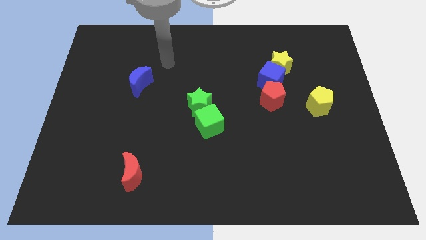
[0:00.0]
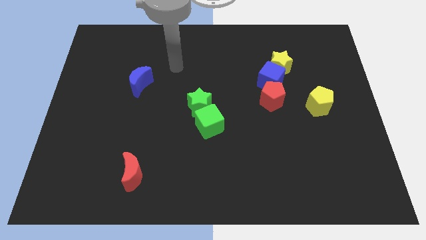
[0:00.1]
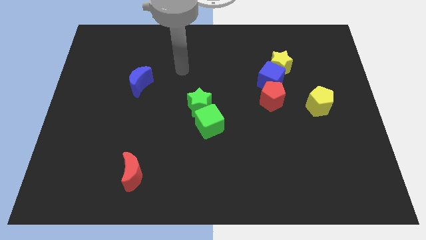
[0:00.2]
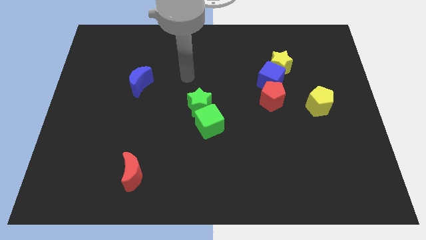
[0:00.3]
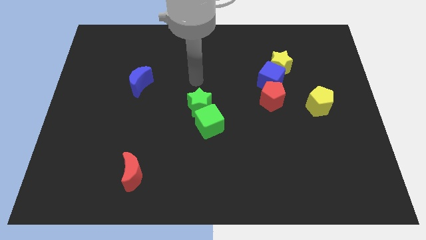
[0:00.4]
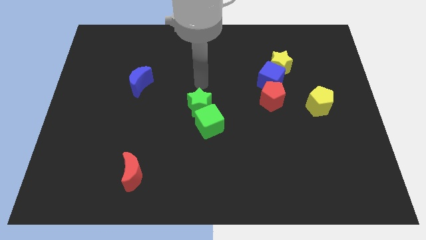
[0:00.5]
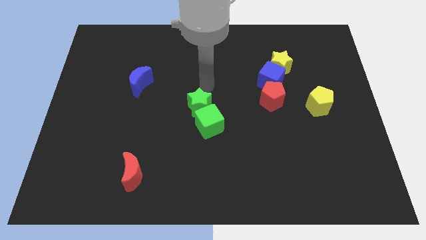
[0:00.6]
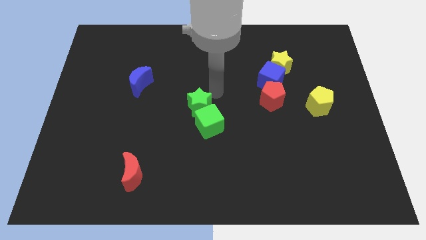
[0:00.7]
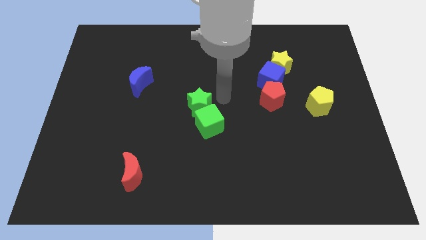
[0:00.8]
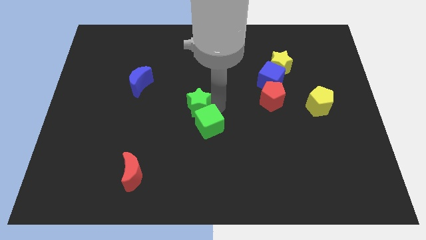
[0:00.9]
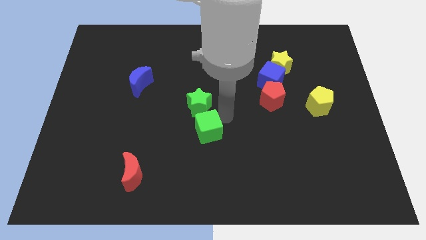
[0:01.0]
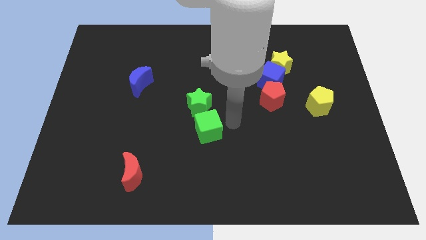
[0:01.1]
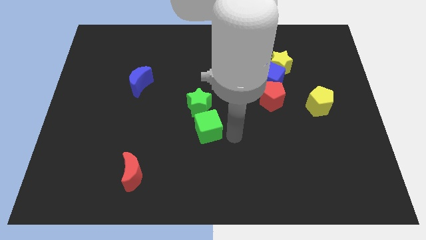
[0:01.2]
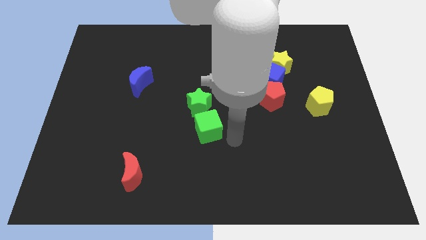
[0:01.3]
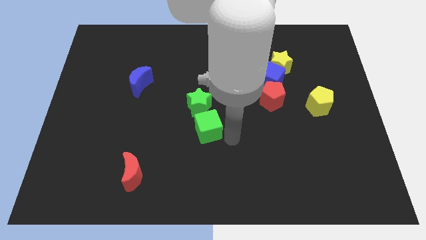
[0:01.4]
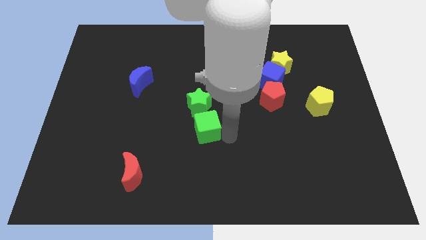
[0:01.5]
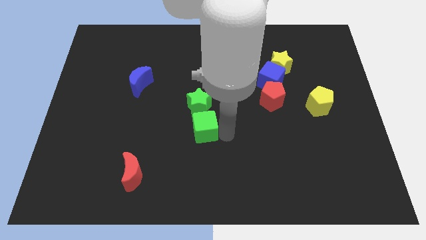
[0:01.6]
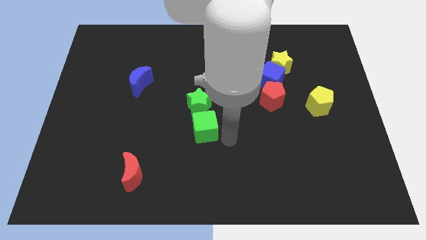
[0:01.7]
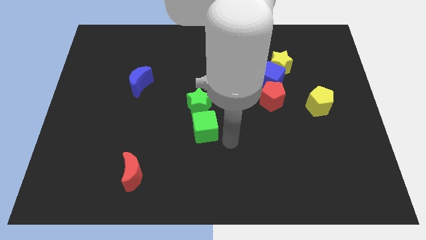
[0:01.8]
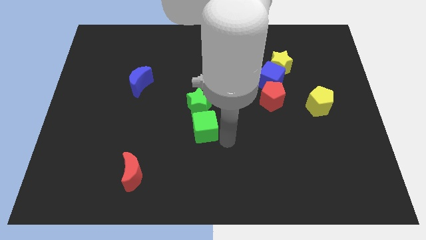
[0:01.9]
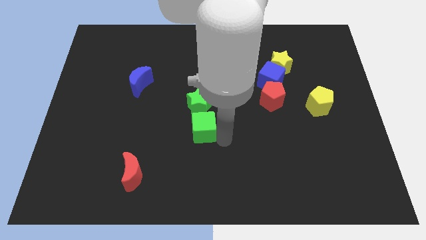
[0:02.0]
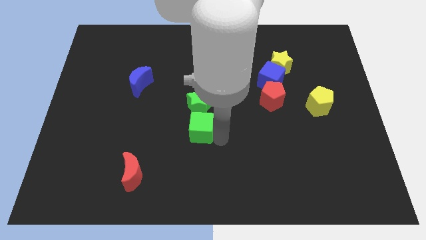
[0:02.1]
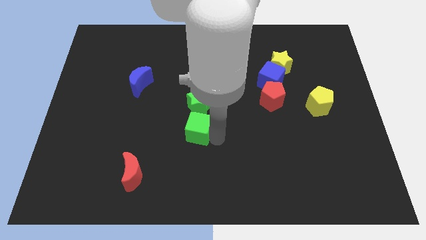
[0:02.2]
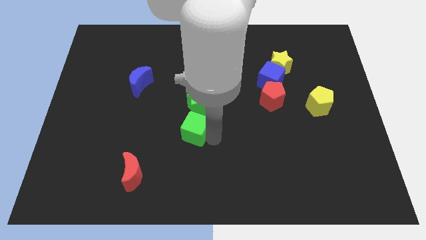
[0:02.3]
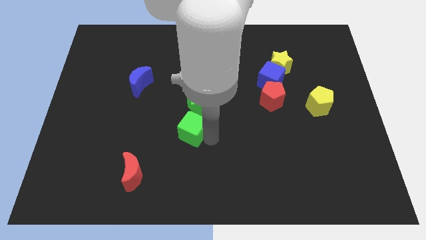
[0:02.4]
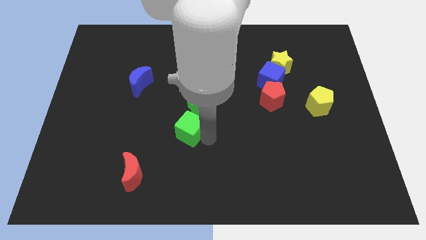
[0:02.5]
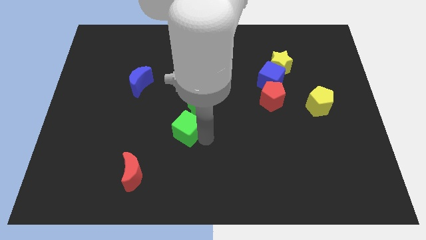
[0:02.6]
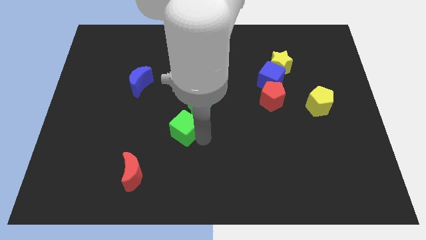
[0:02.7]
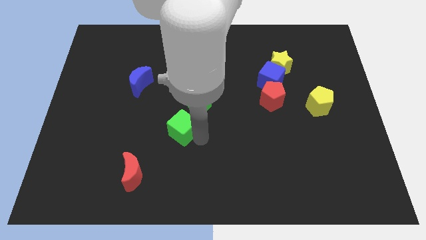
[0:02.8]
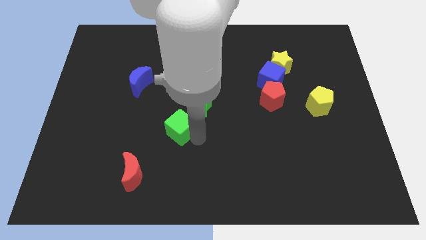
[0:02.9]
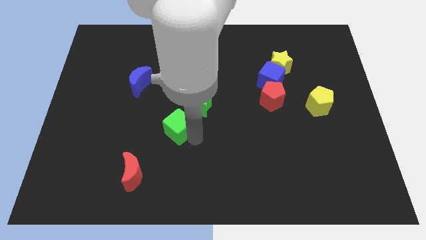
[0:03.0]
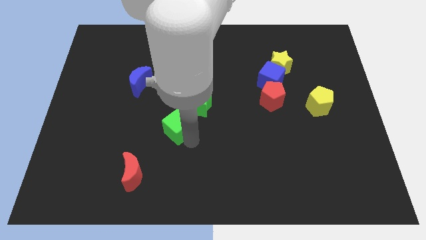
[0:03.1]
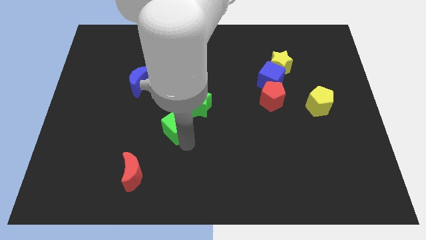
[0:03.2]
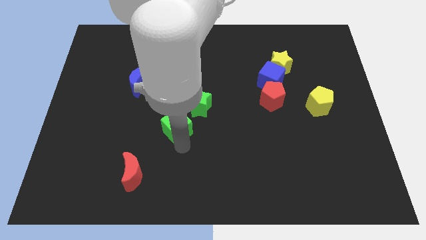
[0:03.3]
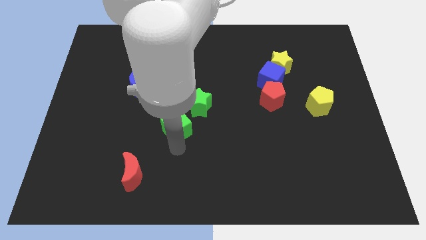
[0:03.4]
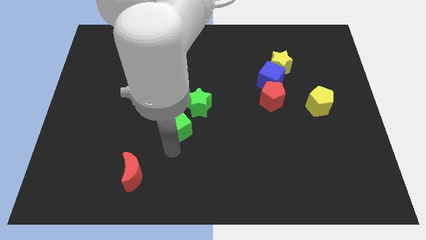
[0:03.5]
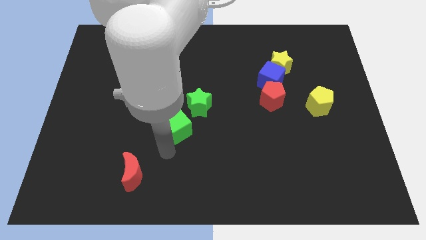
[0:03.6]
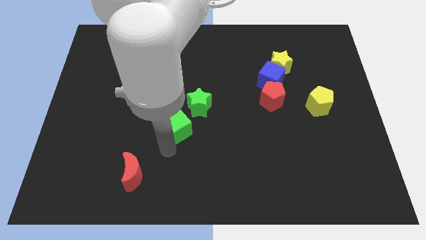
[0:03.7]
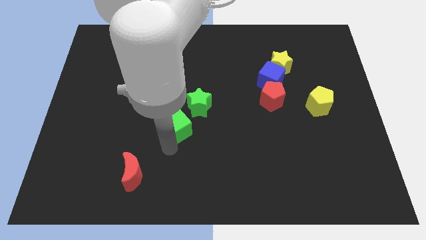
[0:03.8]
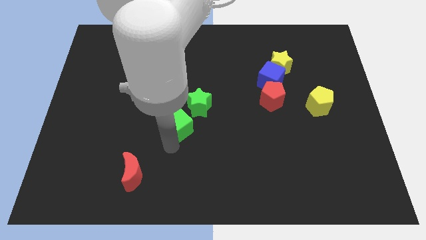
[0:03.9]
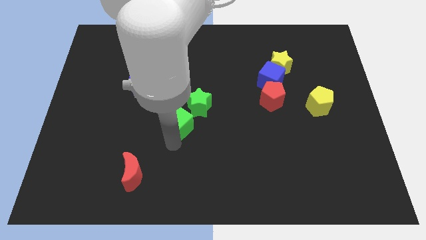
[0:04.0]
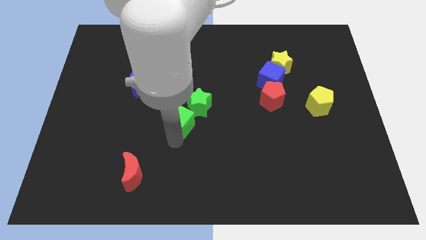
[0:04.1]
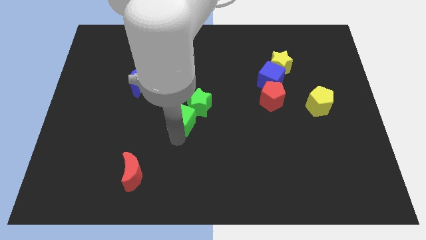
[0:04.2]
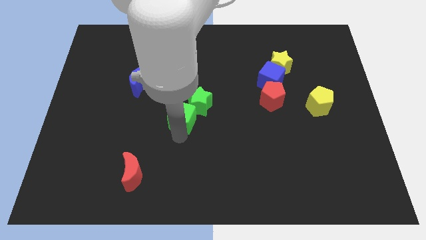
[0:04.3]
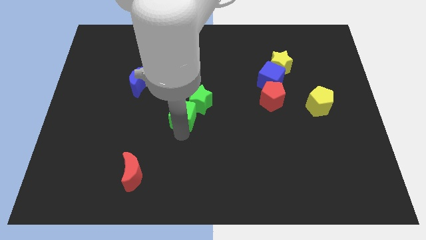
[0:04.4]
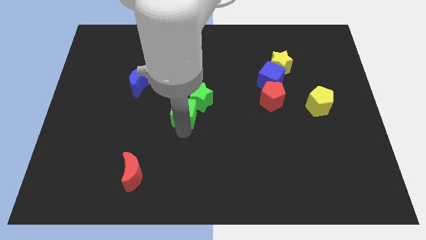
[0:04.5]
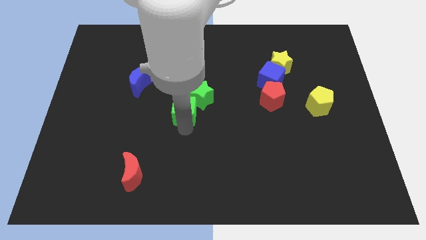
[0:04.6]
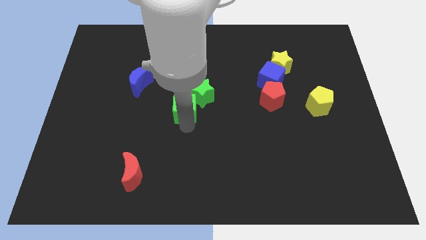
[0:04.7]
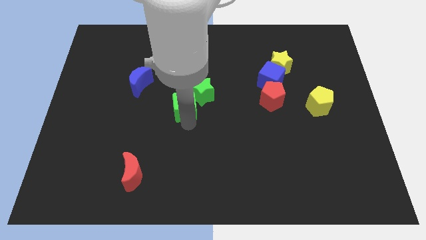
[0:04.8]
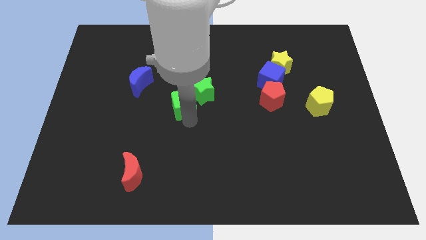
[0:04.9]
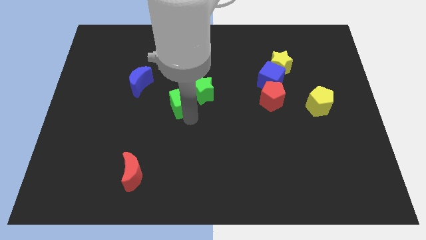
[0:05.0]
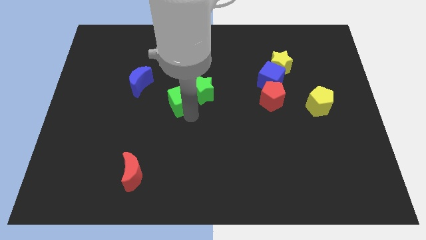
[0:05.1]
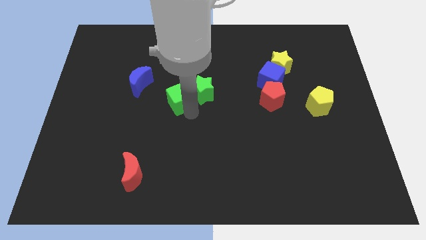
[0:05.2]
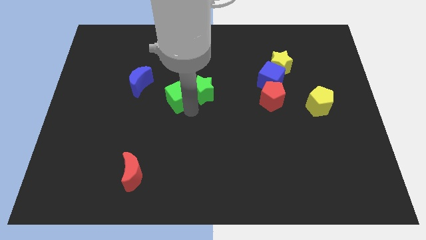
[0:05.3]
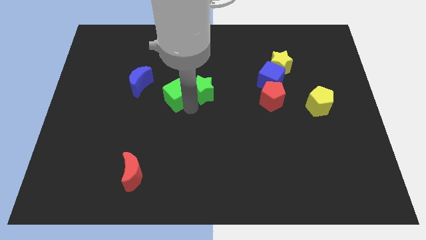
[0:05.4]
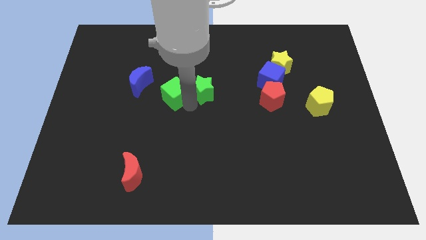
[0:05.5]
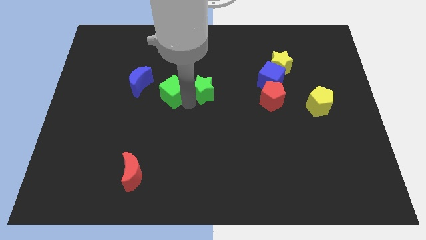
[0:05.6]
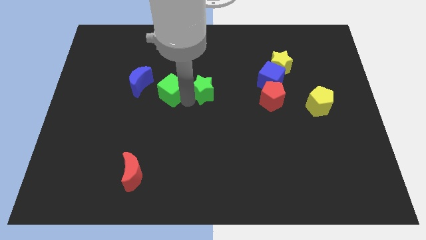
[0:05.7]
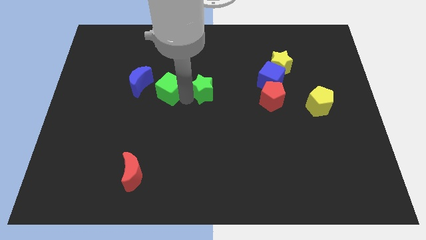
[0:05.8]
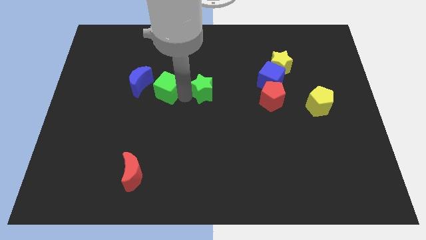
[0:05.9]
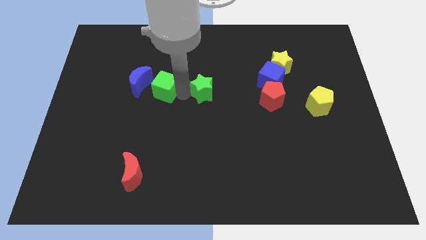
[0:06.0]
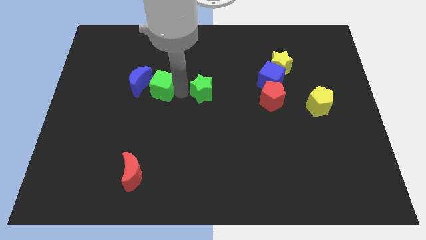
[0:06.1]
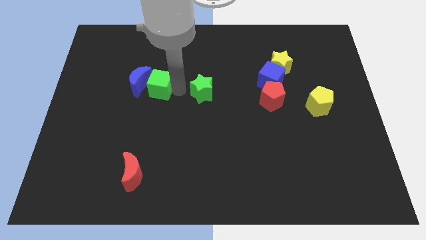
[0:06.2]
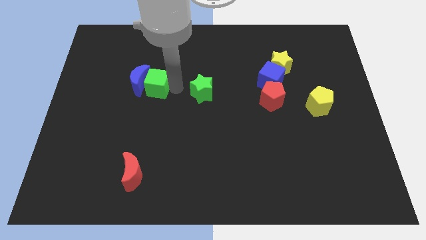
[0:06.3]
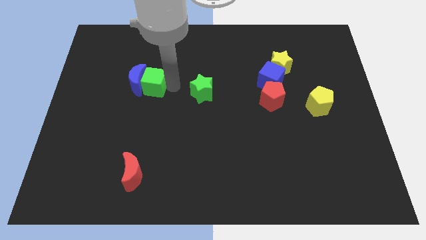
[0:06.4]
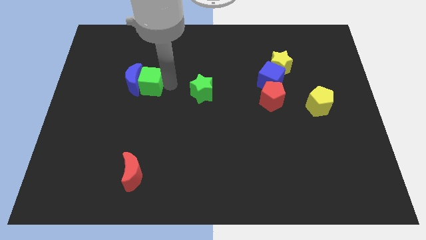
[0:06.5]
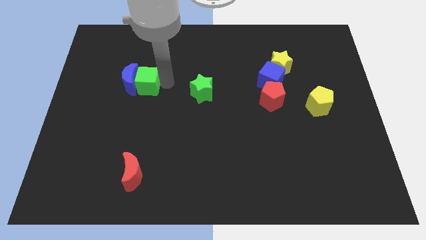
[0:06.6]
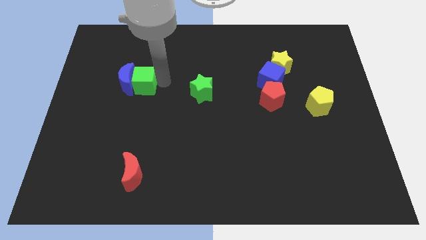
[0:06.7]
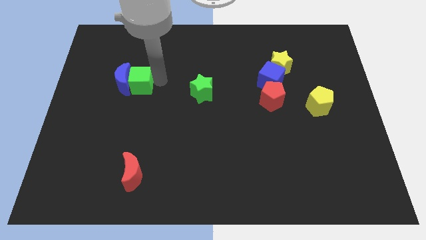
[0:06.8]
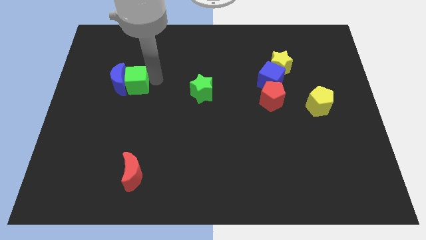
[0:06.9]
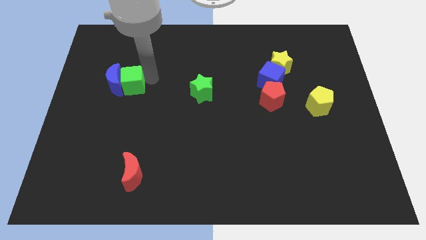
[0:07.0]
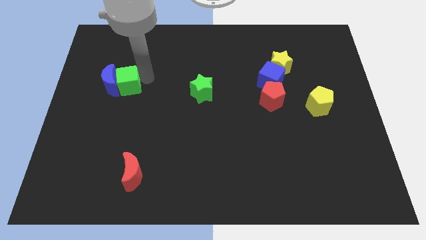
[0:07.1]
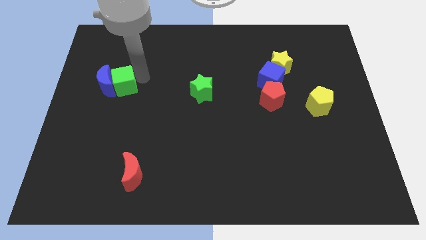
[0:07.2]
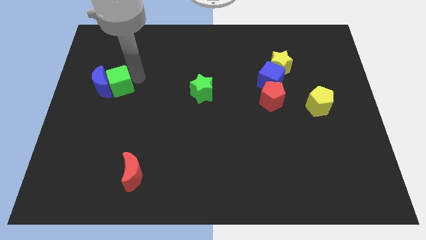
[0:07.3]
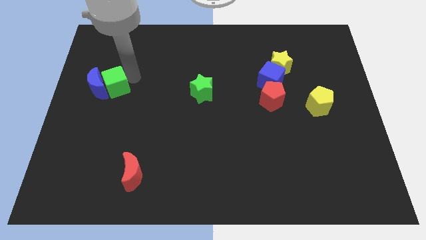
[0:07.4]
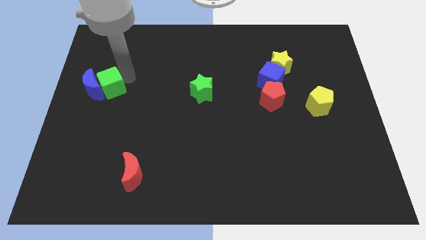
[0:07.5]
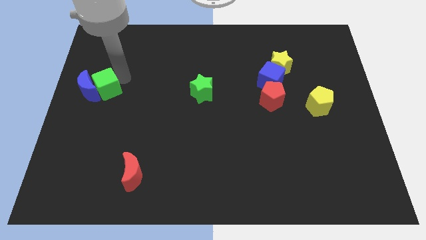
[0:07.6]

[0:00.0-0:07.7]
move the green cube to the center left
